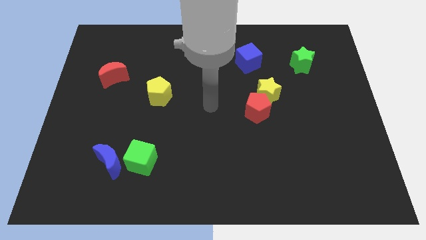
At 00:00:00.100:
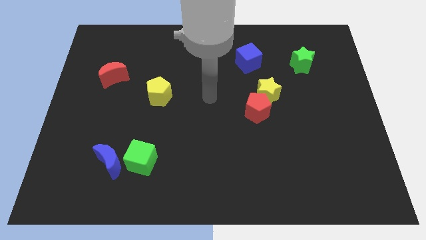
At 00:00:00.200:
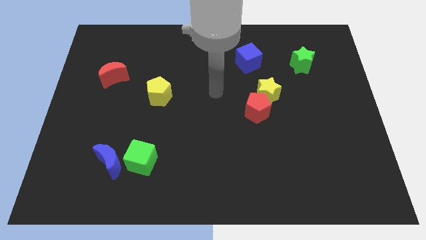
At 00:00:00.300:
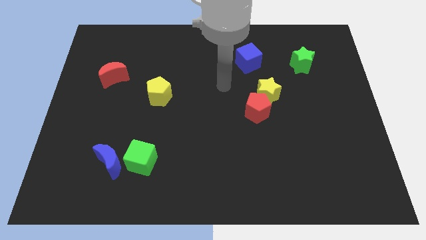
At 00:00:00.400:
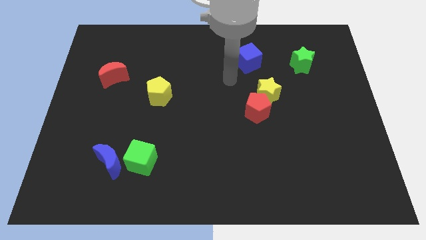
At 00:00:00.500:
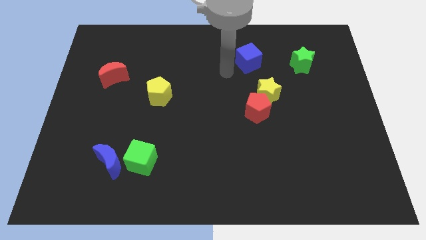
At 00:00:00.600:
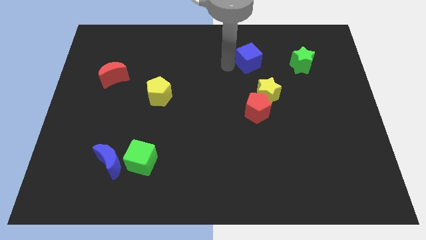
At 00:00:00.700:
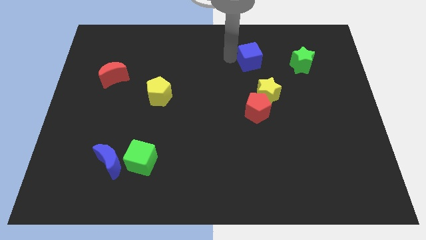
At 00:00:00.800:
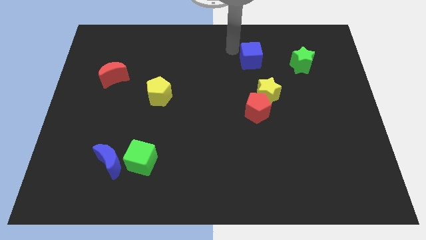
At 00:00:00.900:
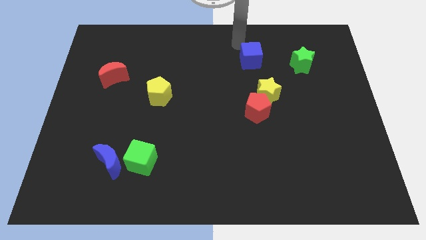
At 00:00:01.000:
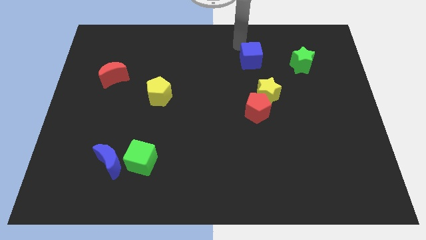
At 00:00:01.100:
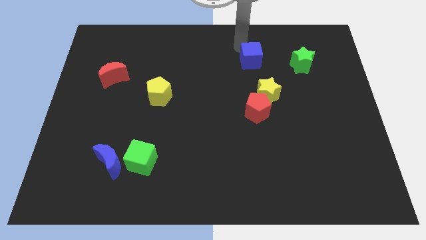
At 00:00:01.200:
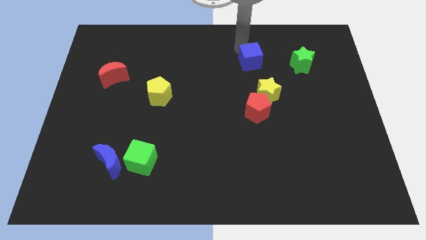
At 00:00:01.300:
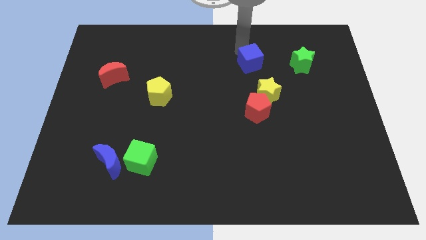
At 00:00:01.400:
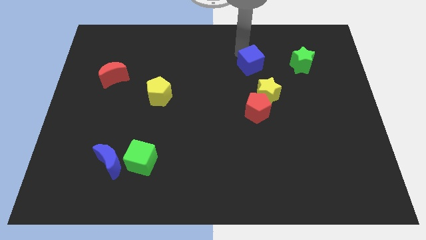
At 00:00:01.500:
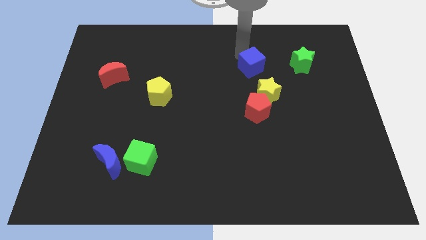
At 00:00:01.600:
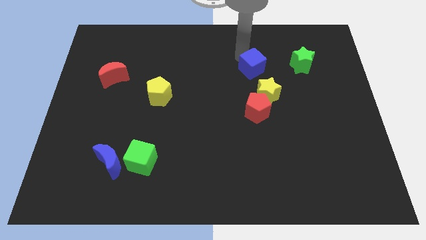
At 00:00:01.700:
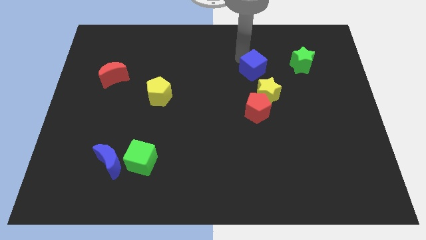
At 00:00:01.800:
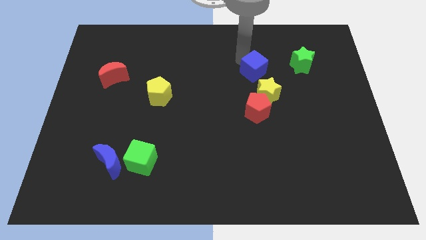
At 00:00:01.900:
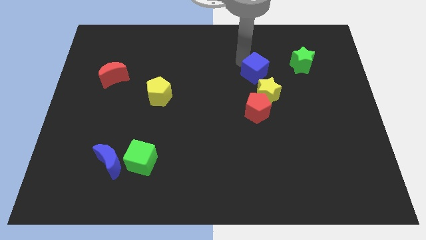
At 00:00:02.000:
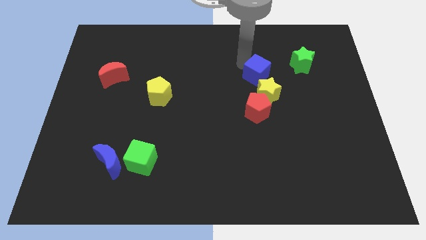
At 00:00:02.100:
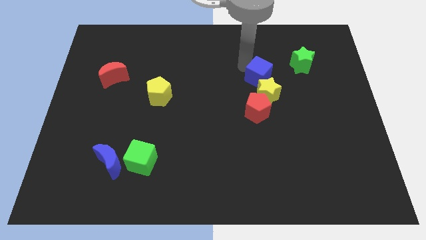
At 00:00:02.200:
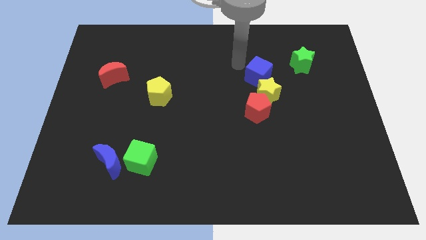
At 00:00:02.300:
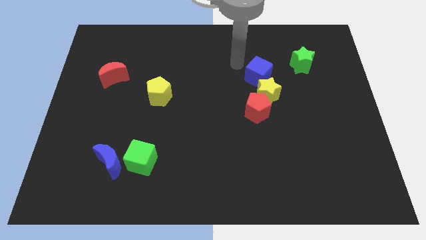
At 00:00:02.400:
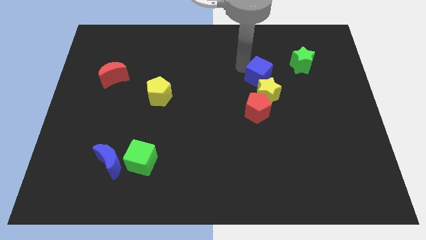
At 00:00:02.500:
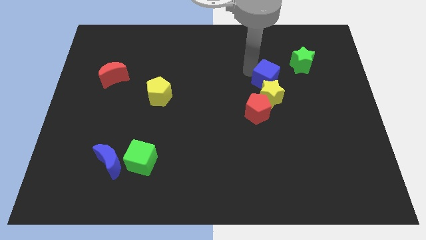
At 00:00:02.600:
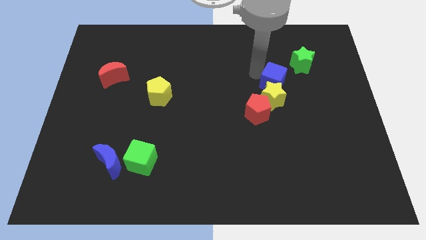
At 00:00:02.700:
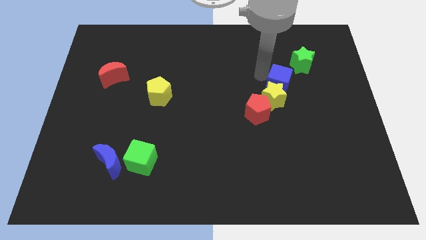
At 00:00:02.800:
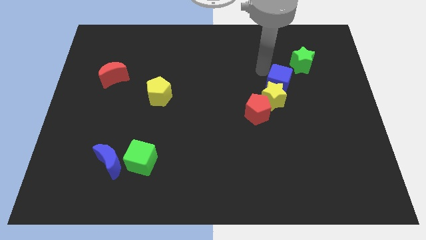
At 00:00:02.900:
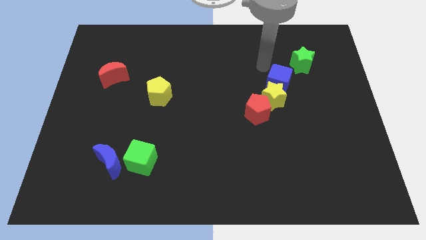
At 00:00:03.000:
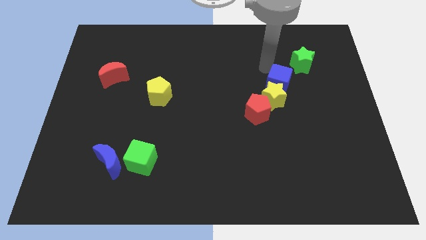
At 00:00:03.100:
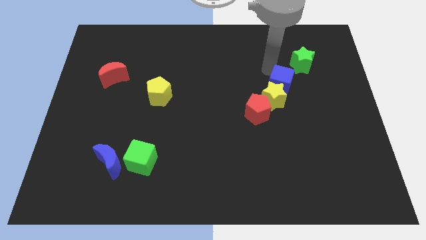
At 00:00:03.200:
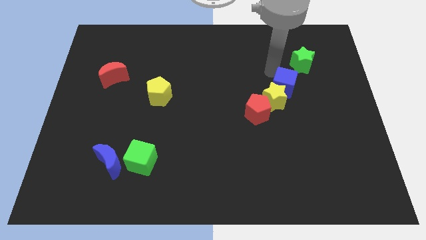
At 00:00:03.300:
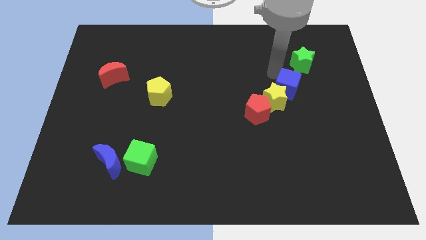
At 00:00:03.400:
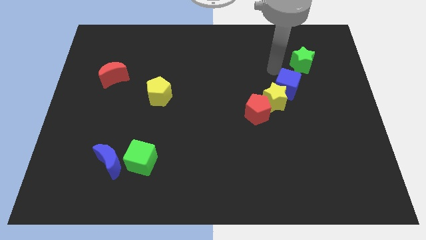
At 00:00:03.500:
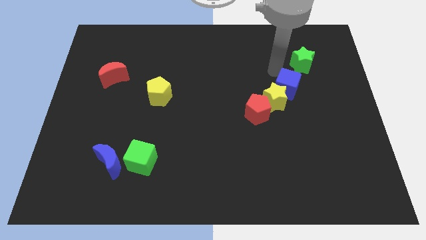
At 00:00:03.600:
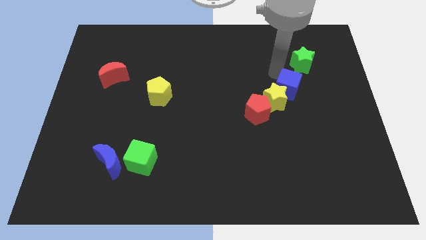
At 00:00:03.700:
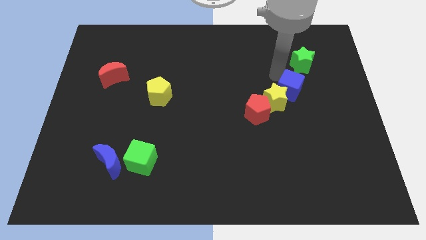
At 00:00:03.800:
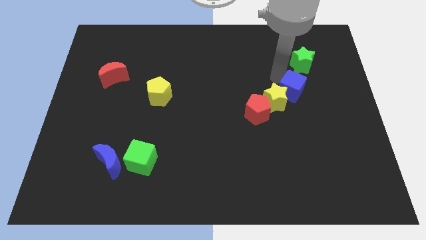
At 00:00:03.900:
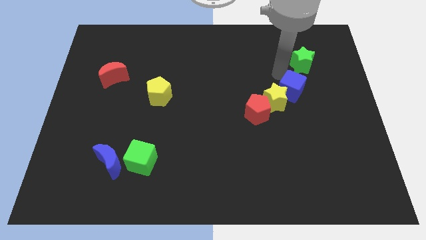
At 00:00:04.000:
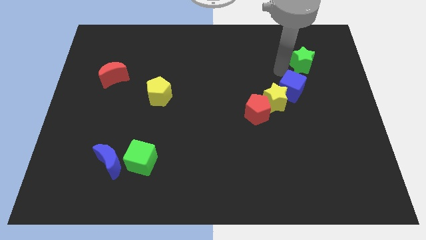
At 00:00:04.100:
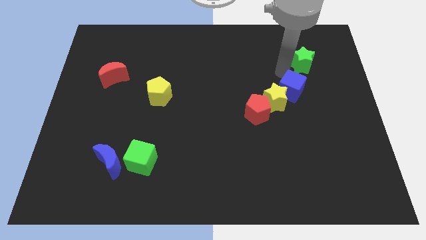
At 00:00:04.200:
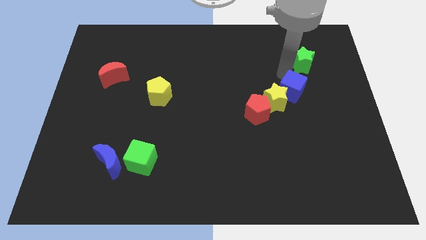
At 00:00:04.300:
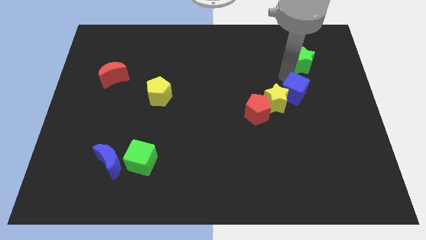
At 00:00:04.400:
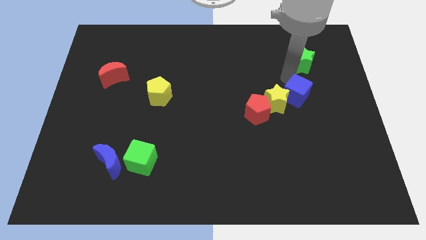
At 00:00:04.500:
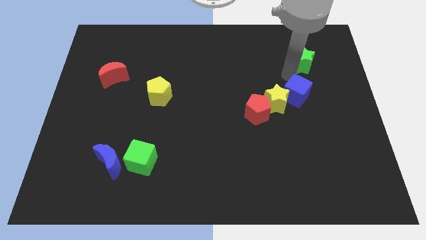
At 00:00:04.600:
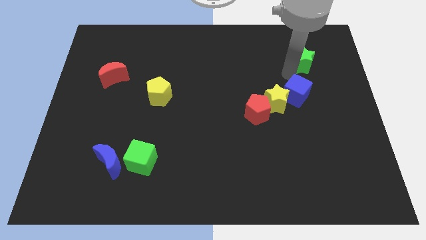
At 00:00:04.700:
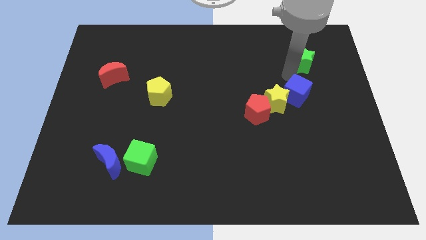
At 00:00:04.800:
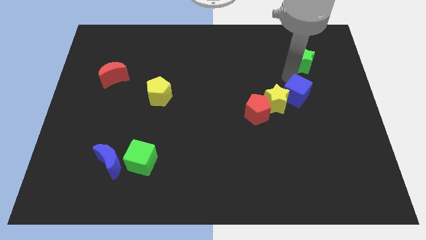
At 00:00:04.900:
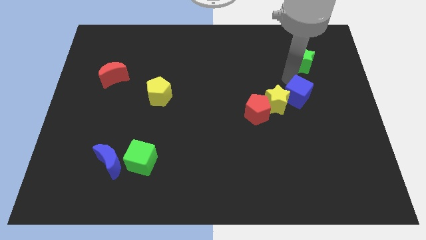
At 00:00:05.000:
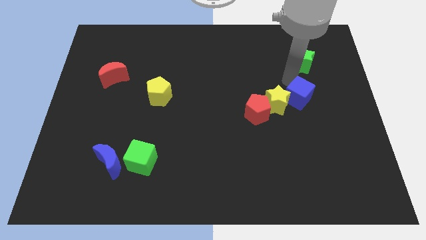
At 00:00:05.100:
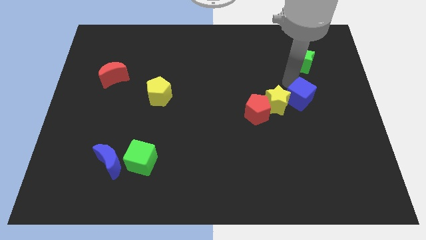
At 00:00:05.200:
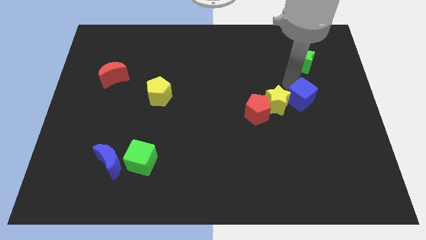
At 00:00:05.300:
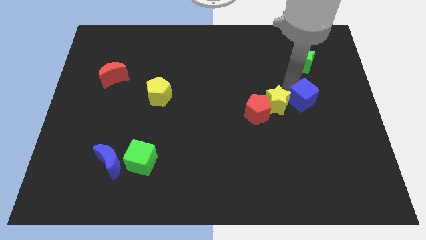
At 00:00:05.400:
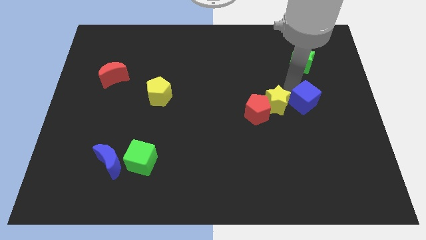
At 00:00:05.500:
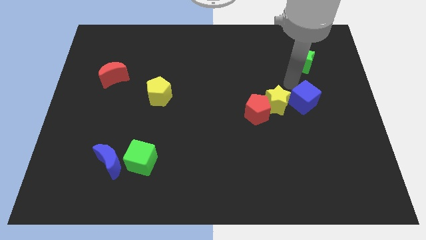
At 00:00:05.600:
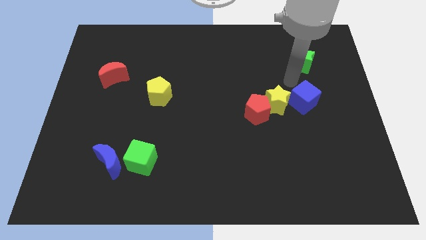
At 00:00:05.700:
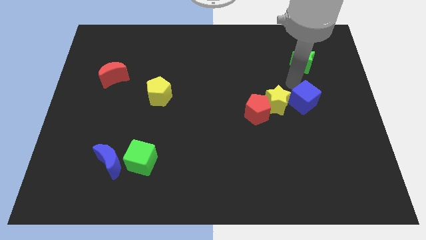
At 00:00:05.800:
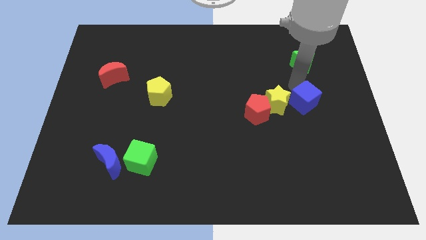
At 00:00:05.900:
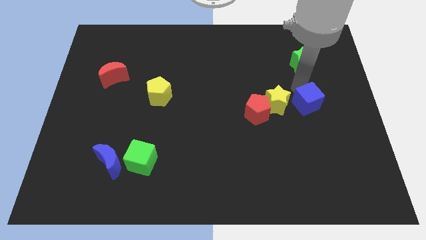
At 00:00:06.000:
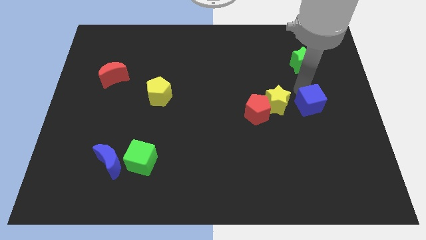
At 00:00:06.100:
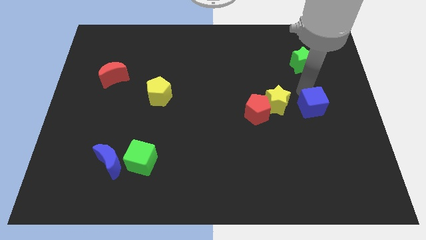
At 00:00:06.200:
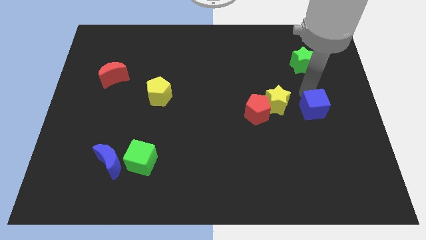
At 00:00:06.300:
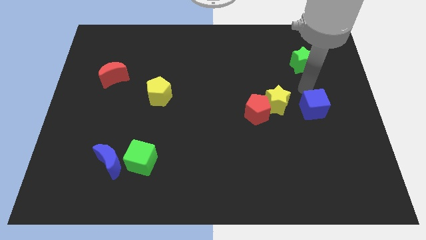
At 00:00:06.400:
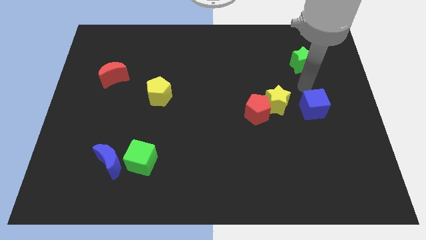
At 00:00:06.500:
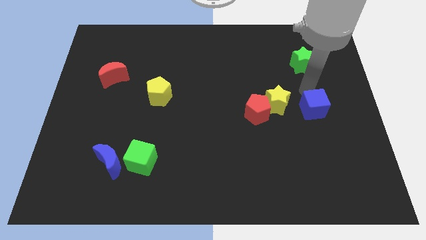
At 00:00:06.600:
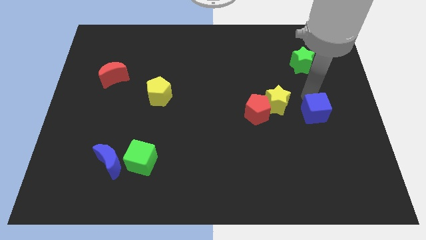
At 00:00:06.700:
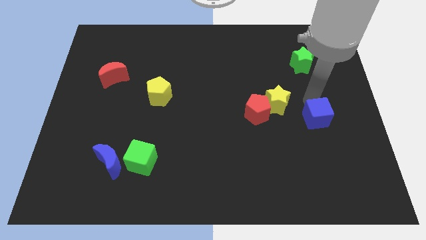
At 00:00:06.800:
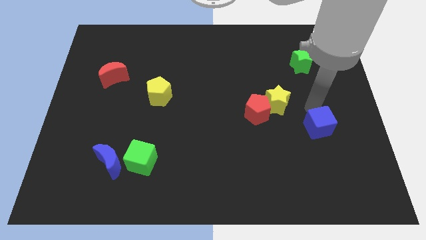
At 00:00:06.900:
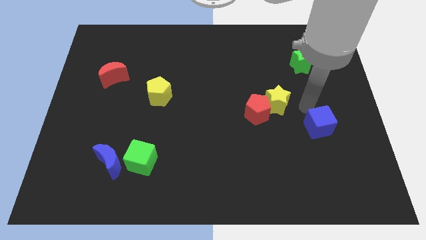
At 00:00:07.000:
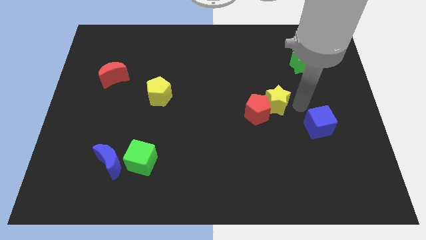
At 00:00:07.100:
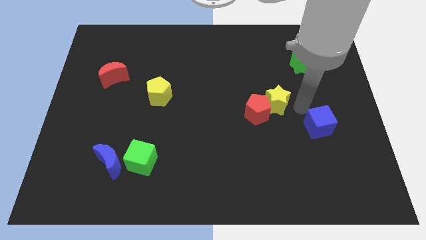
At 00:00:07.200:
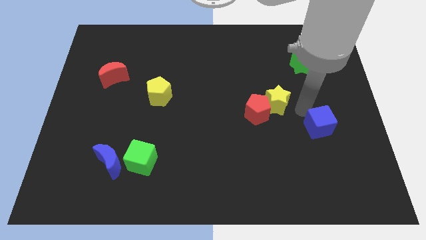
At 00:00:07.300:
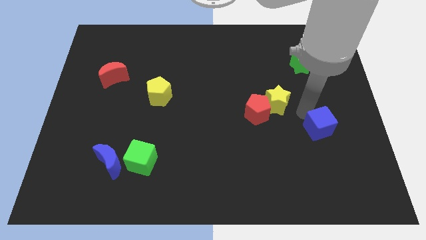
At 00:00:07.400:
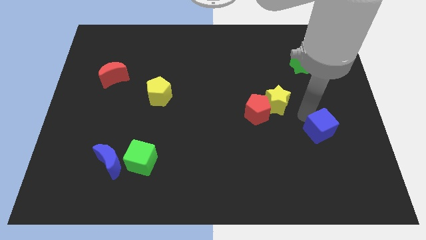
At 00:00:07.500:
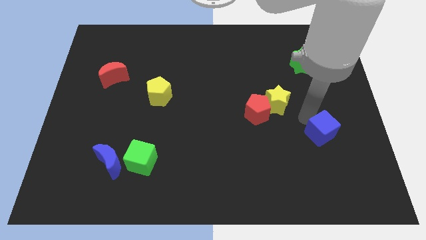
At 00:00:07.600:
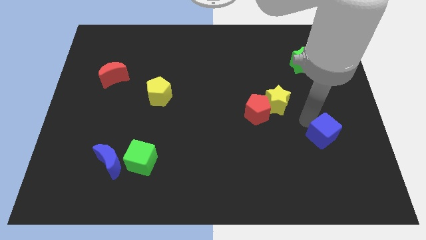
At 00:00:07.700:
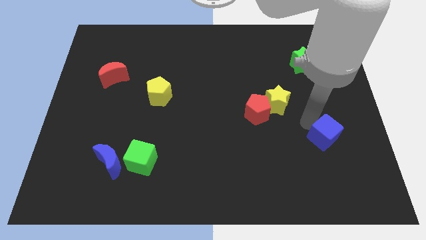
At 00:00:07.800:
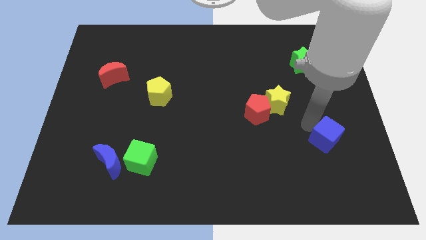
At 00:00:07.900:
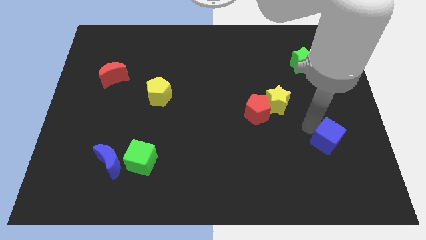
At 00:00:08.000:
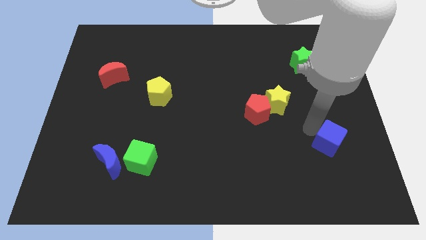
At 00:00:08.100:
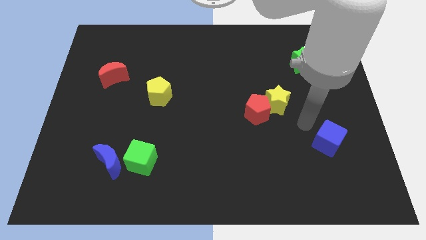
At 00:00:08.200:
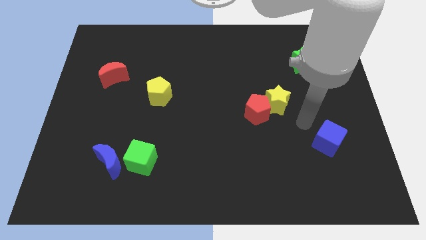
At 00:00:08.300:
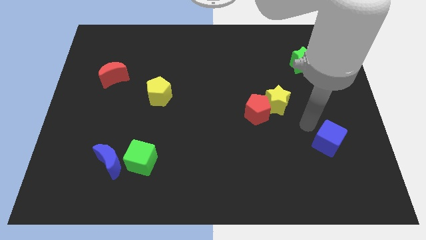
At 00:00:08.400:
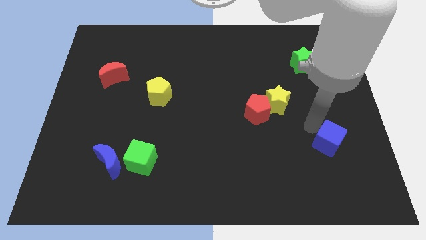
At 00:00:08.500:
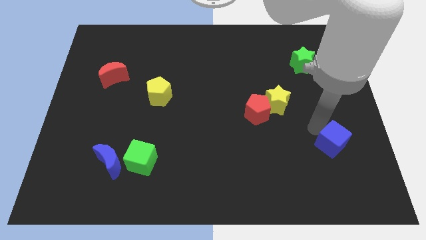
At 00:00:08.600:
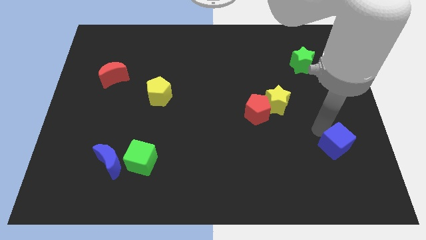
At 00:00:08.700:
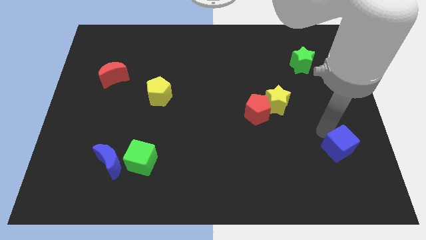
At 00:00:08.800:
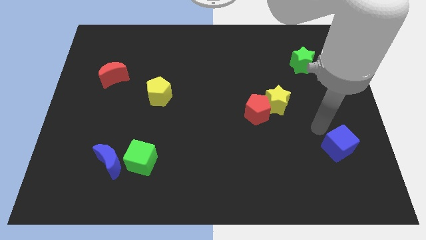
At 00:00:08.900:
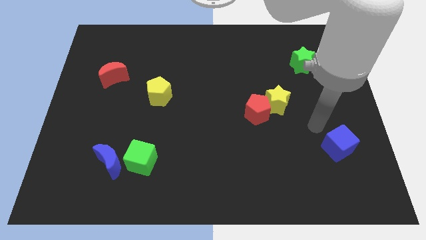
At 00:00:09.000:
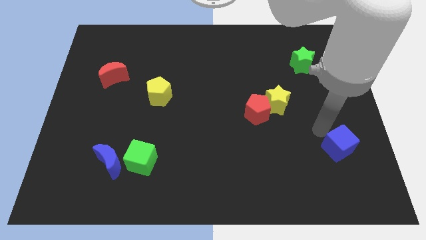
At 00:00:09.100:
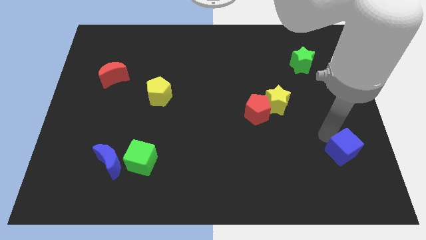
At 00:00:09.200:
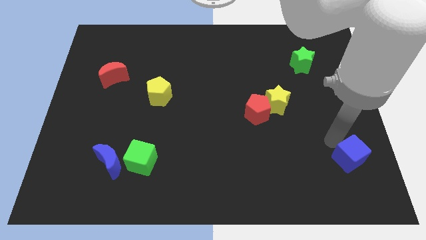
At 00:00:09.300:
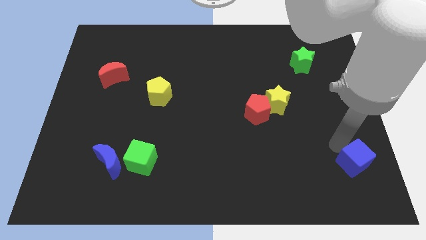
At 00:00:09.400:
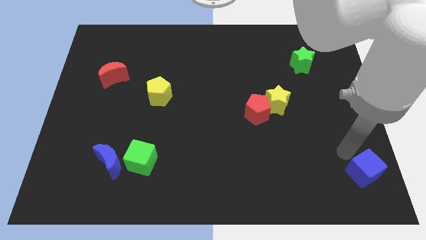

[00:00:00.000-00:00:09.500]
slide the blue cube to the lower right corner
